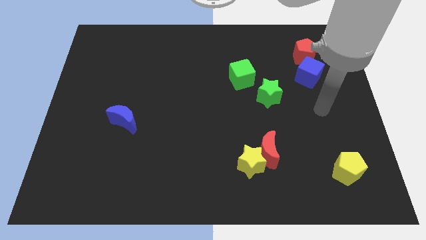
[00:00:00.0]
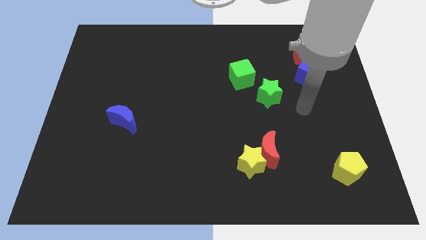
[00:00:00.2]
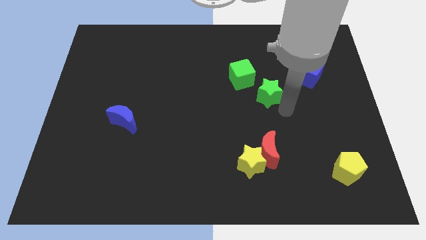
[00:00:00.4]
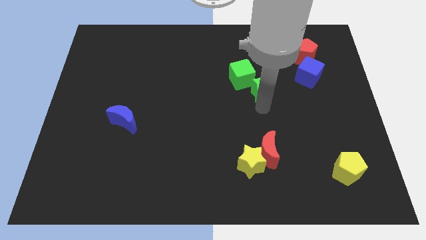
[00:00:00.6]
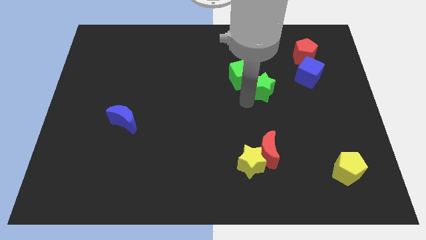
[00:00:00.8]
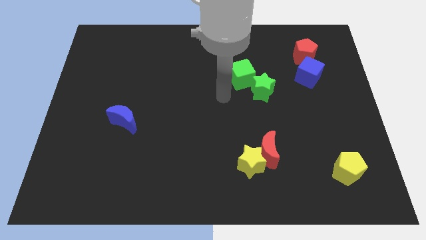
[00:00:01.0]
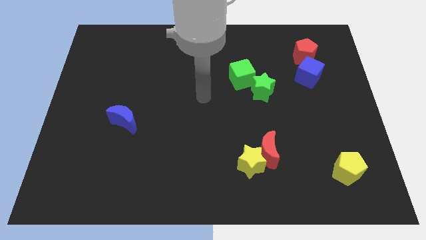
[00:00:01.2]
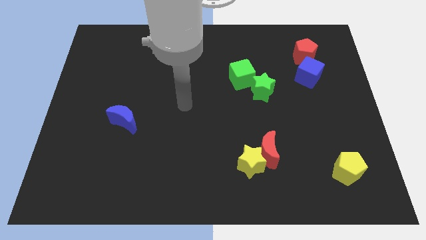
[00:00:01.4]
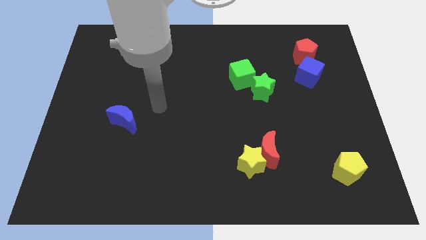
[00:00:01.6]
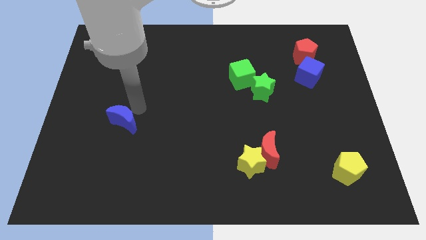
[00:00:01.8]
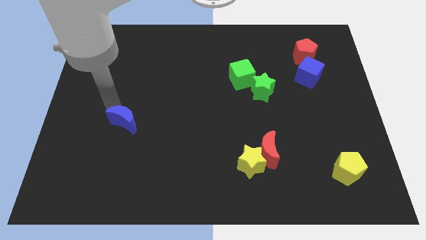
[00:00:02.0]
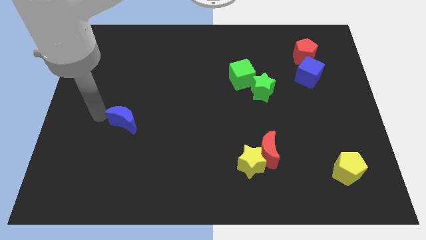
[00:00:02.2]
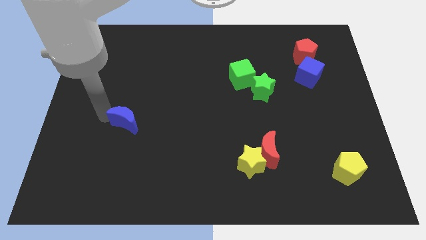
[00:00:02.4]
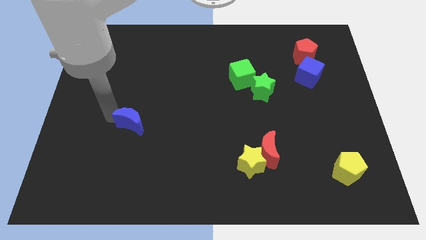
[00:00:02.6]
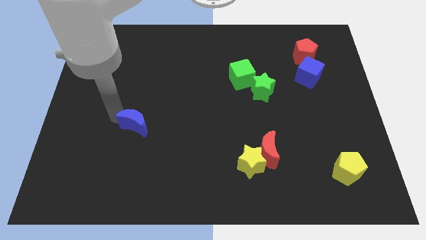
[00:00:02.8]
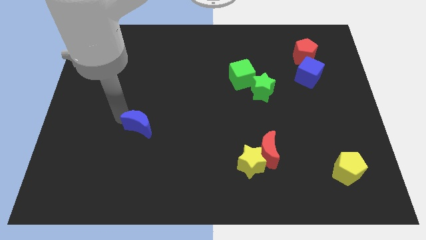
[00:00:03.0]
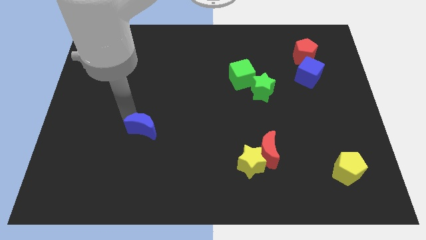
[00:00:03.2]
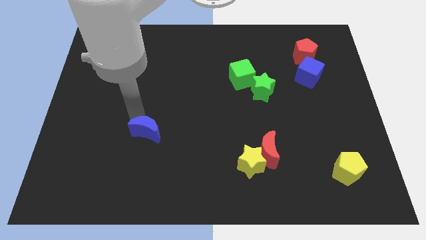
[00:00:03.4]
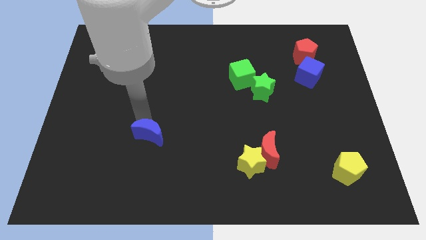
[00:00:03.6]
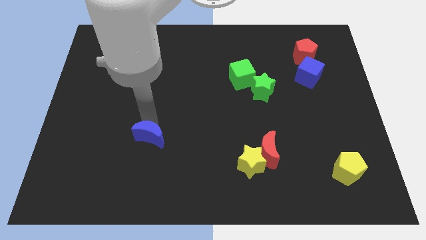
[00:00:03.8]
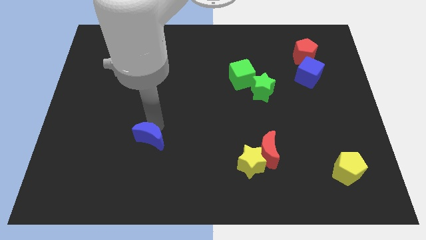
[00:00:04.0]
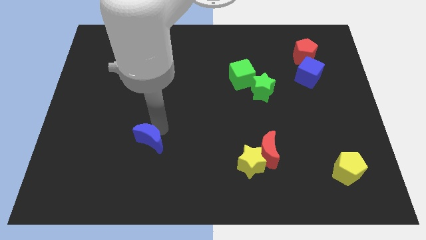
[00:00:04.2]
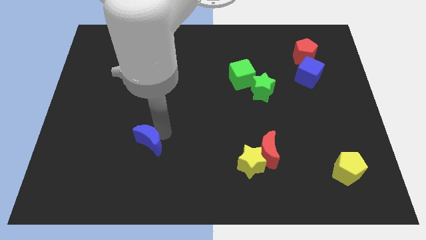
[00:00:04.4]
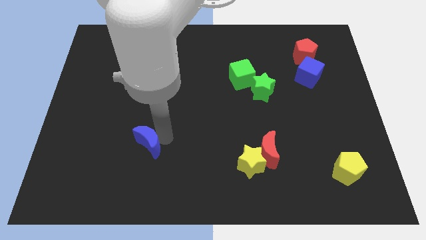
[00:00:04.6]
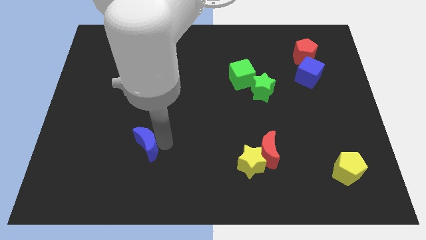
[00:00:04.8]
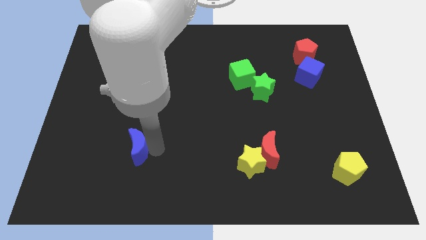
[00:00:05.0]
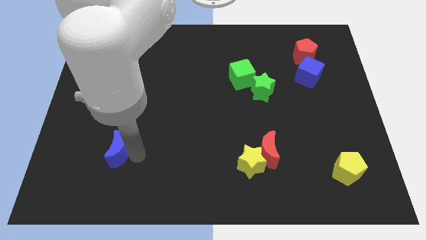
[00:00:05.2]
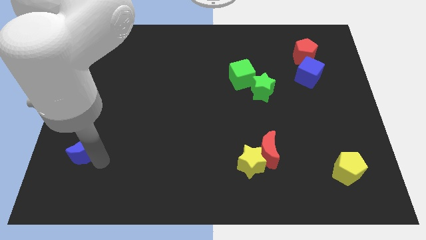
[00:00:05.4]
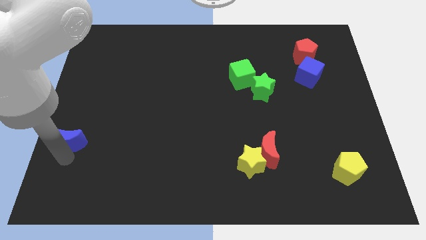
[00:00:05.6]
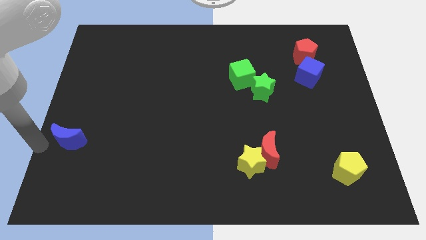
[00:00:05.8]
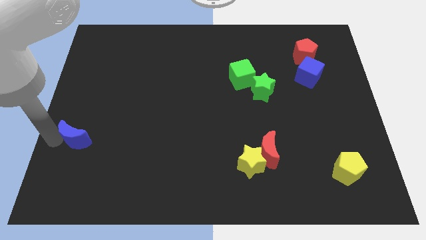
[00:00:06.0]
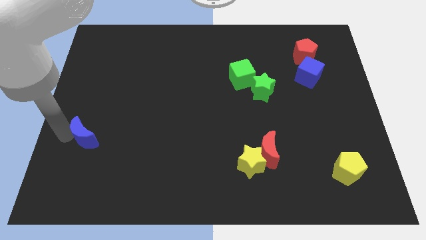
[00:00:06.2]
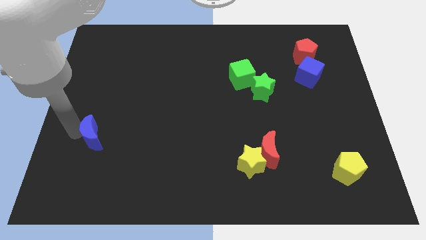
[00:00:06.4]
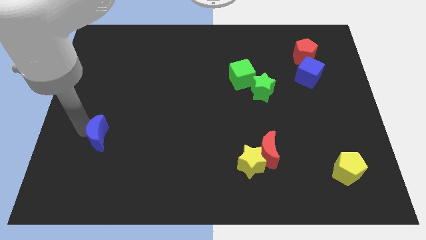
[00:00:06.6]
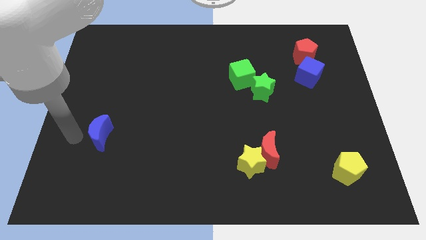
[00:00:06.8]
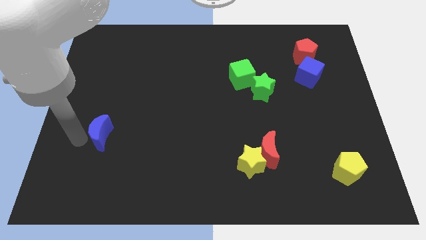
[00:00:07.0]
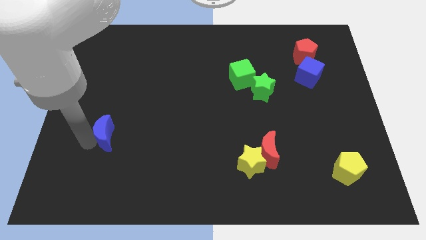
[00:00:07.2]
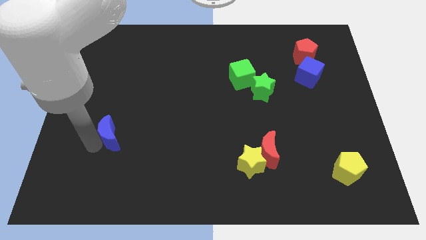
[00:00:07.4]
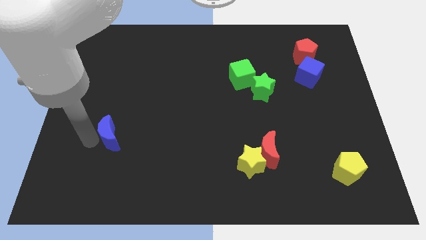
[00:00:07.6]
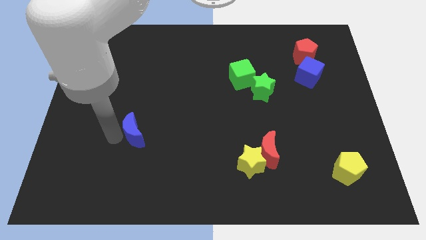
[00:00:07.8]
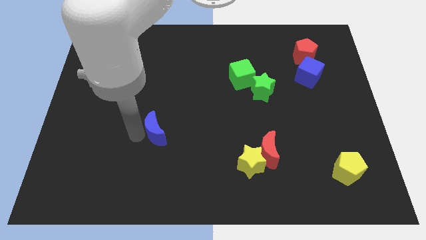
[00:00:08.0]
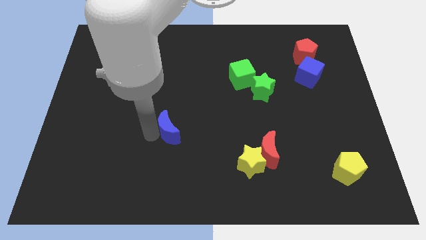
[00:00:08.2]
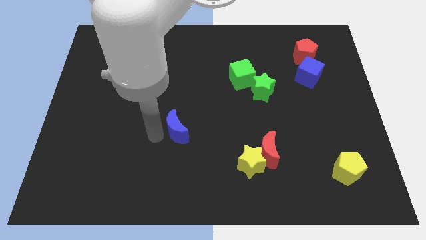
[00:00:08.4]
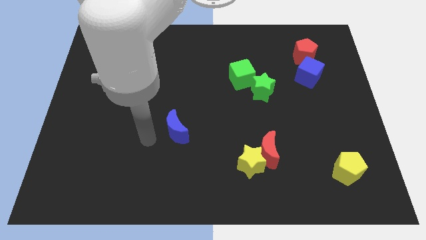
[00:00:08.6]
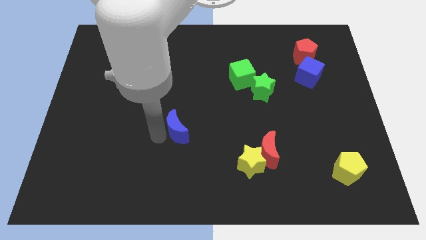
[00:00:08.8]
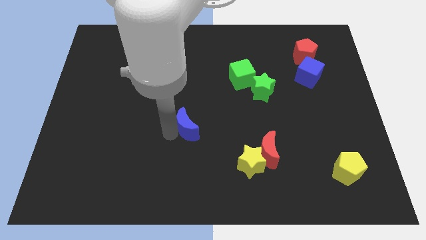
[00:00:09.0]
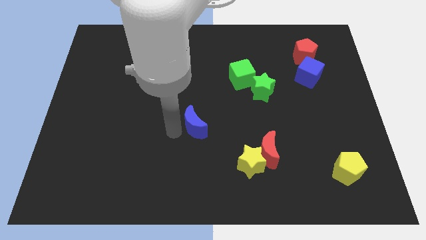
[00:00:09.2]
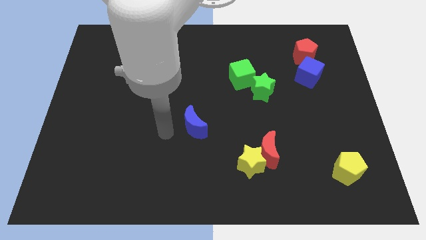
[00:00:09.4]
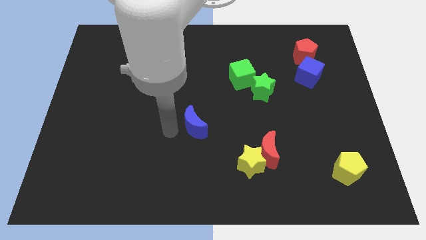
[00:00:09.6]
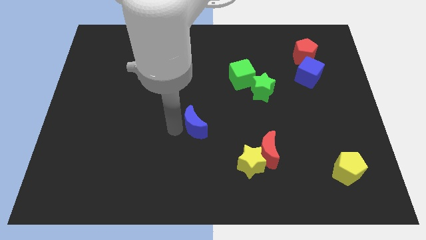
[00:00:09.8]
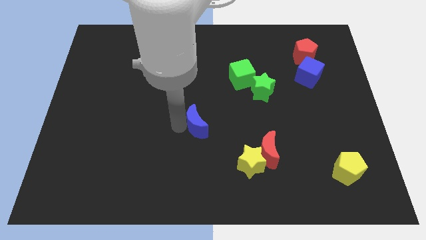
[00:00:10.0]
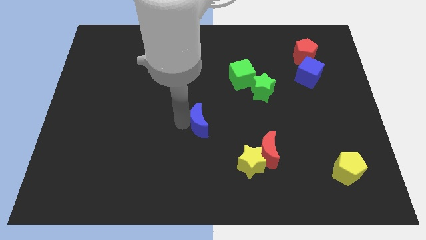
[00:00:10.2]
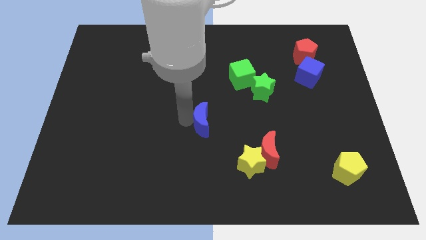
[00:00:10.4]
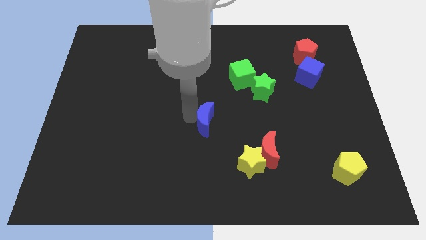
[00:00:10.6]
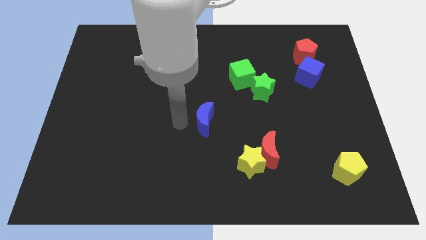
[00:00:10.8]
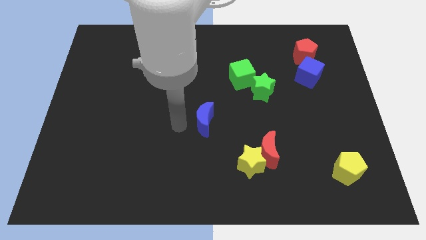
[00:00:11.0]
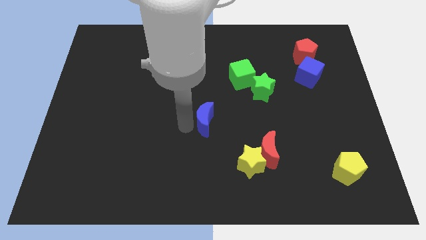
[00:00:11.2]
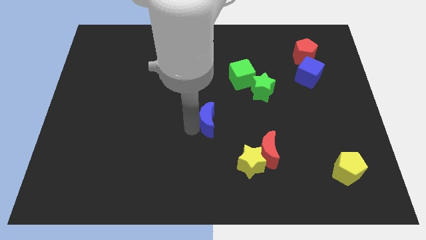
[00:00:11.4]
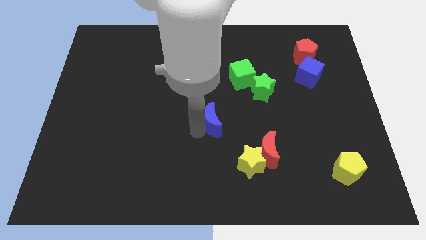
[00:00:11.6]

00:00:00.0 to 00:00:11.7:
slide the blue moon right

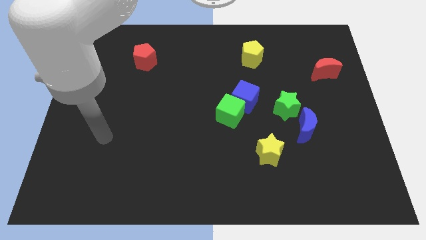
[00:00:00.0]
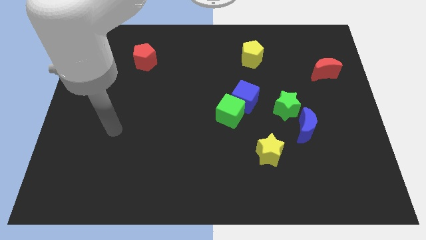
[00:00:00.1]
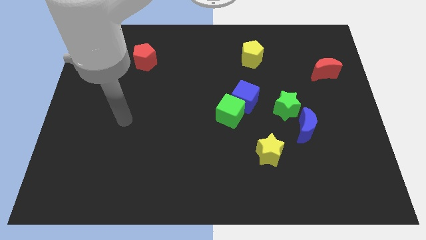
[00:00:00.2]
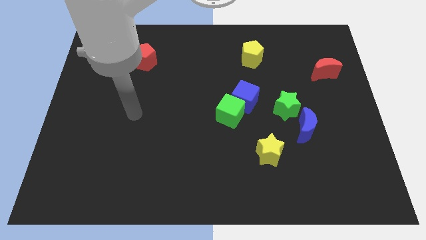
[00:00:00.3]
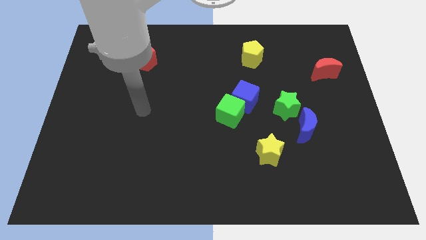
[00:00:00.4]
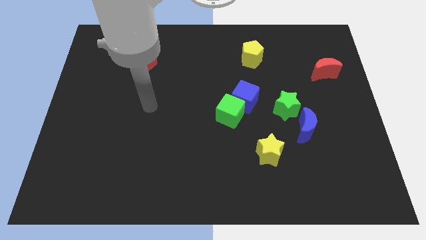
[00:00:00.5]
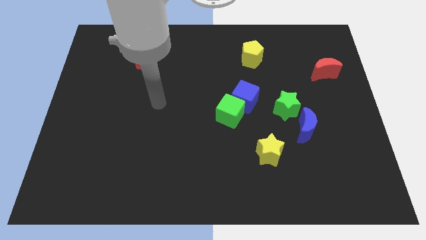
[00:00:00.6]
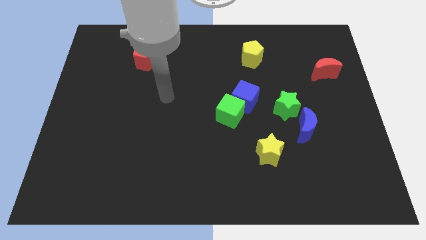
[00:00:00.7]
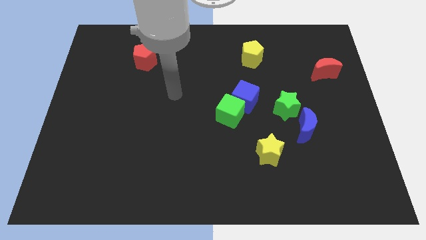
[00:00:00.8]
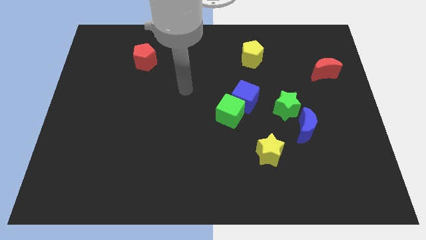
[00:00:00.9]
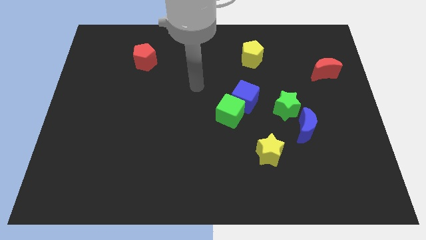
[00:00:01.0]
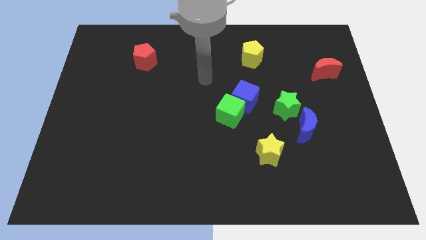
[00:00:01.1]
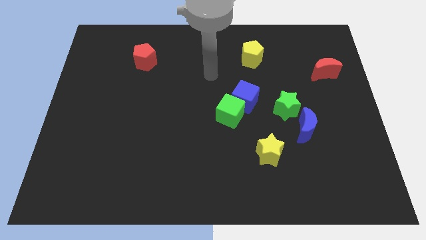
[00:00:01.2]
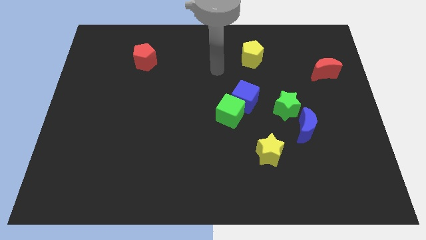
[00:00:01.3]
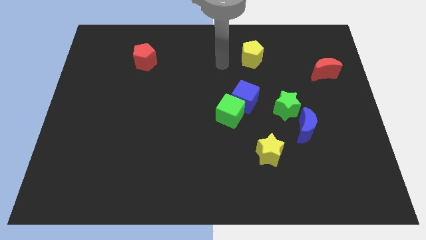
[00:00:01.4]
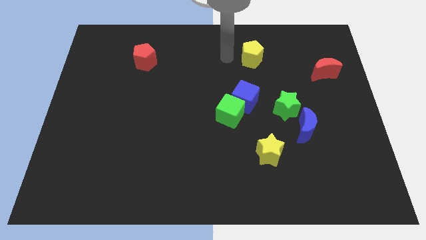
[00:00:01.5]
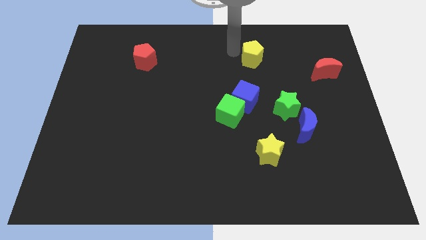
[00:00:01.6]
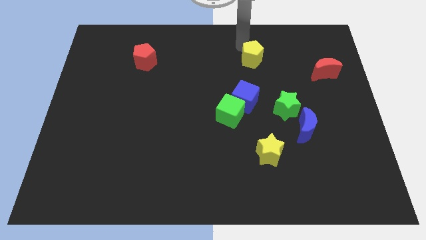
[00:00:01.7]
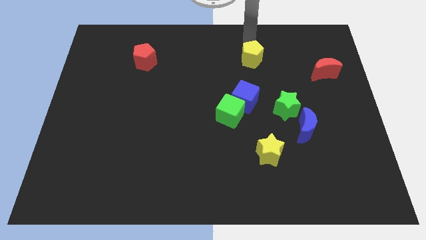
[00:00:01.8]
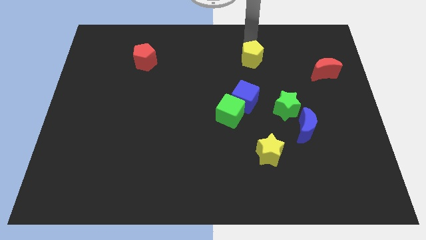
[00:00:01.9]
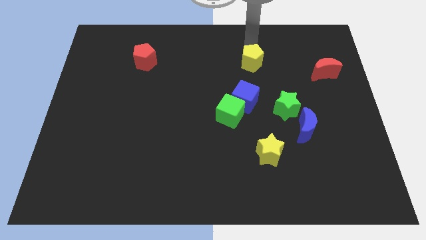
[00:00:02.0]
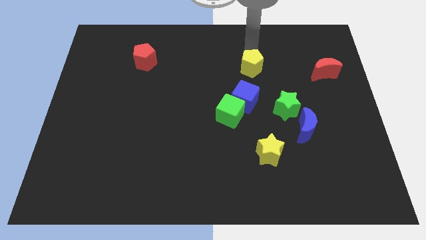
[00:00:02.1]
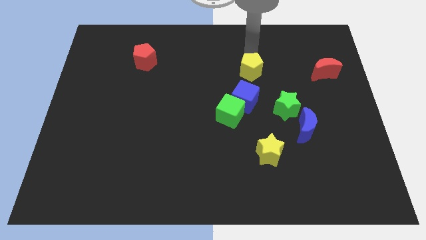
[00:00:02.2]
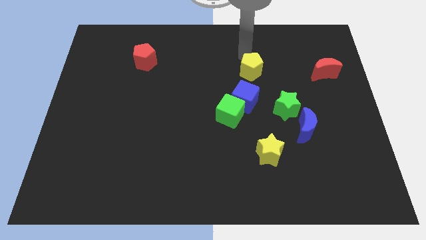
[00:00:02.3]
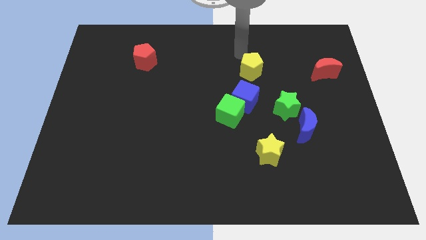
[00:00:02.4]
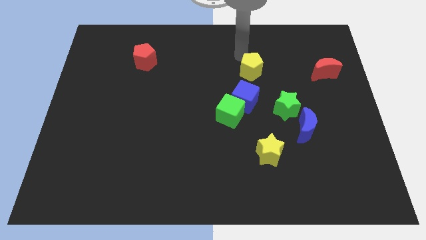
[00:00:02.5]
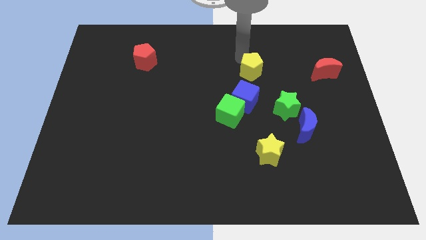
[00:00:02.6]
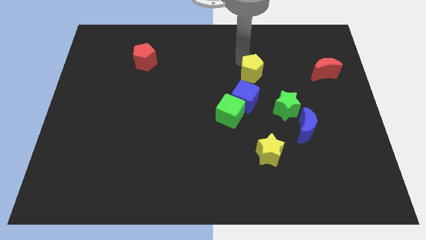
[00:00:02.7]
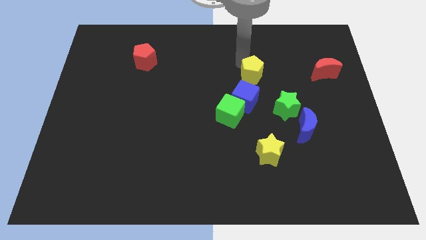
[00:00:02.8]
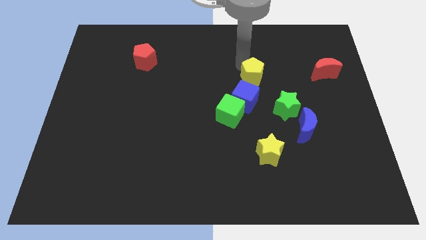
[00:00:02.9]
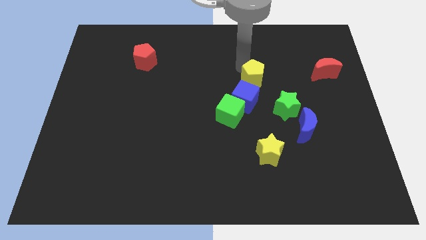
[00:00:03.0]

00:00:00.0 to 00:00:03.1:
push the yellow pentagon down a little
